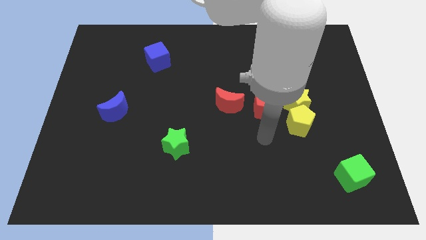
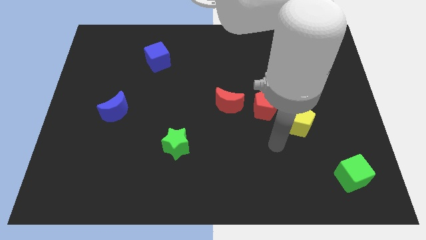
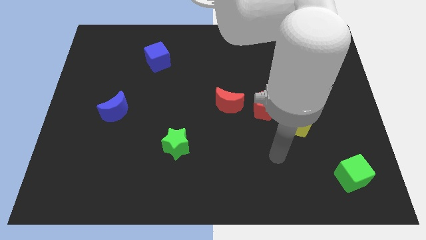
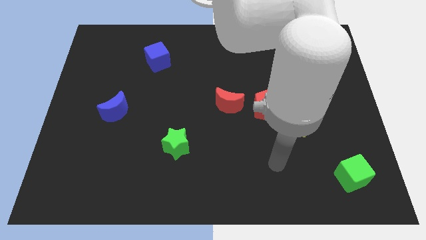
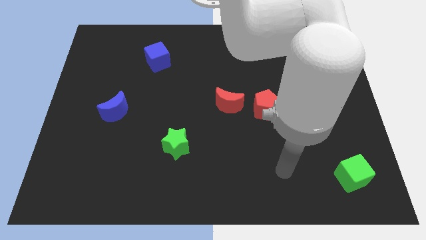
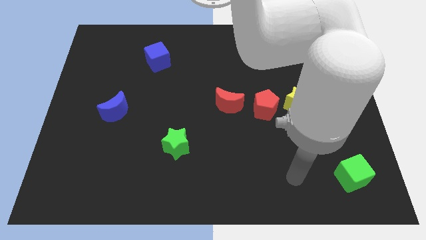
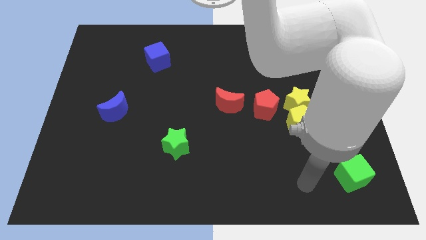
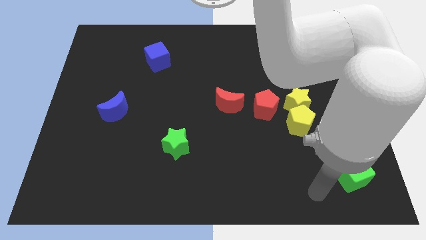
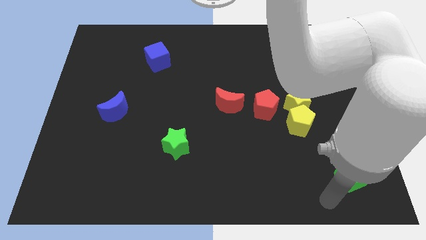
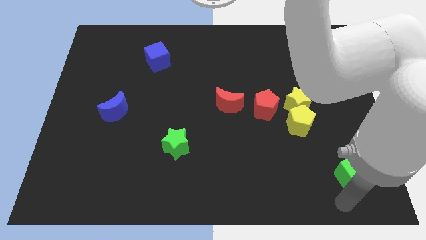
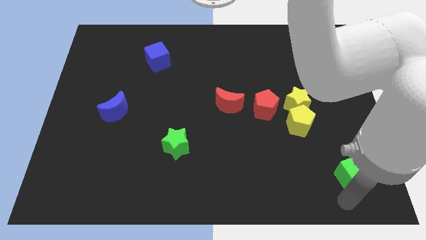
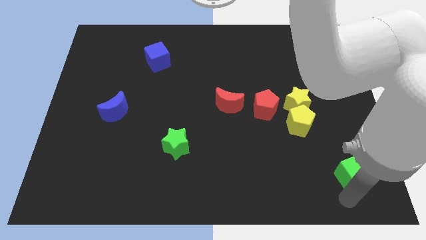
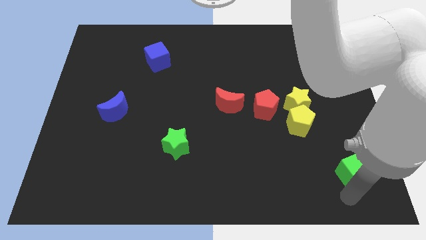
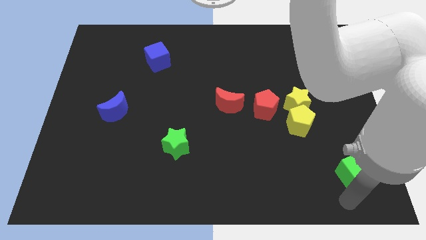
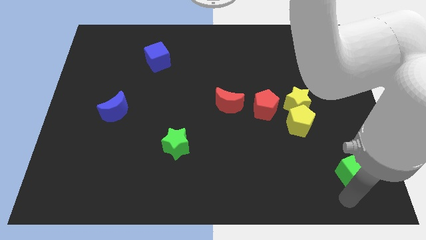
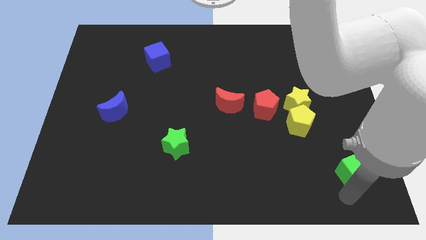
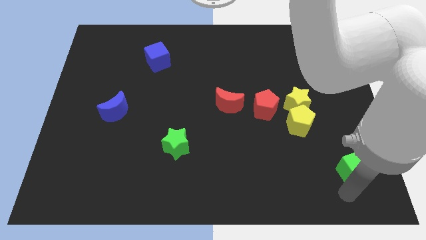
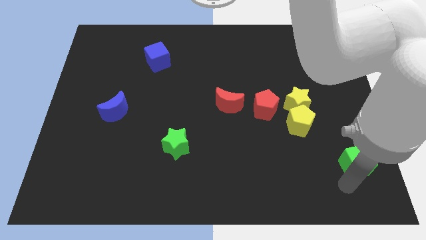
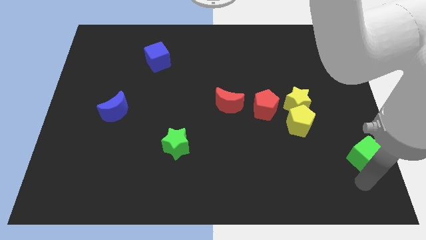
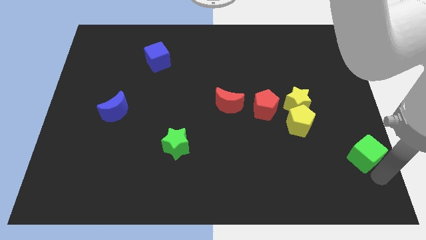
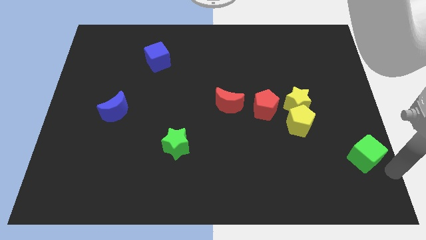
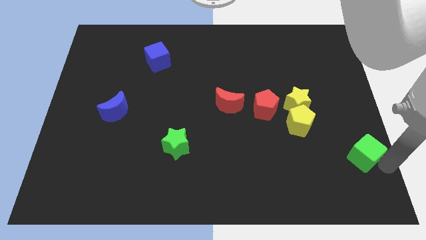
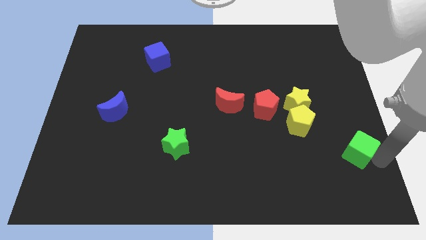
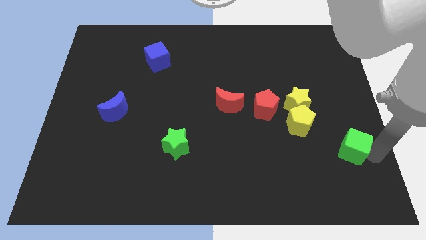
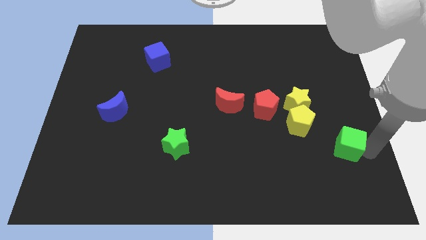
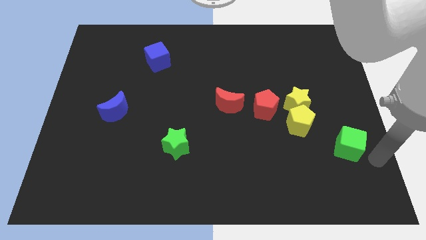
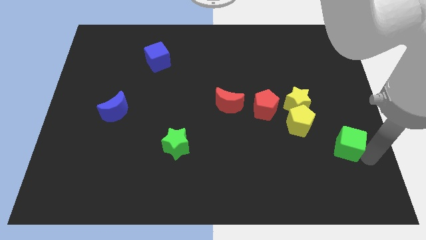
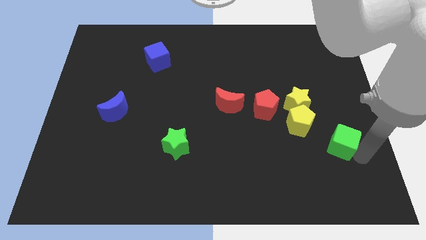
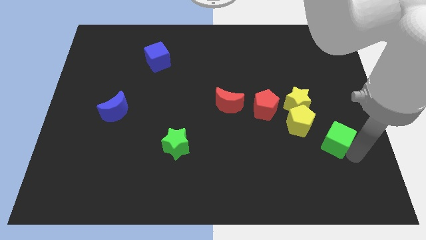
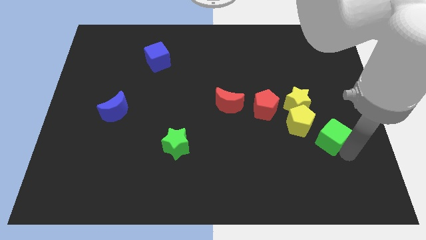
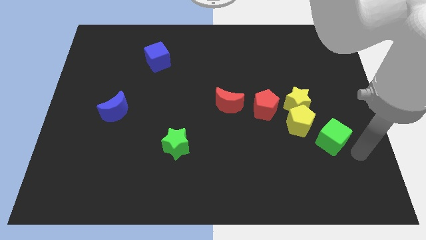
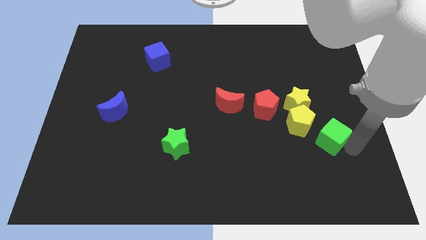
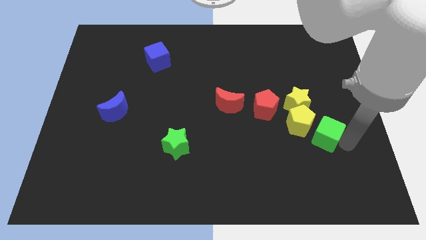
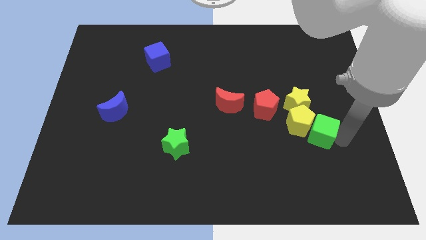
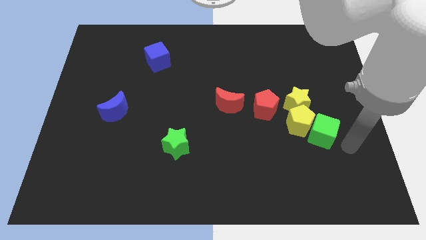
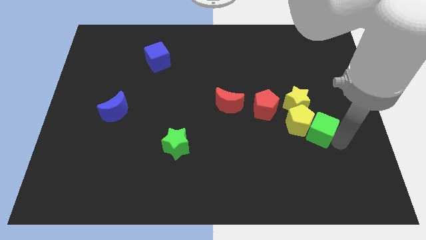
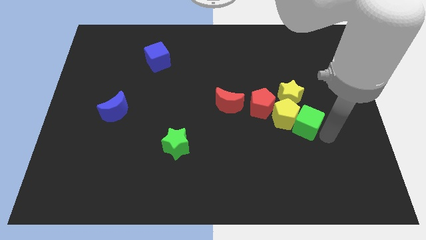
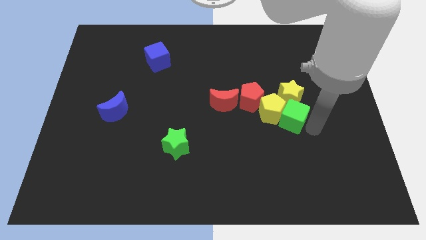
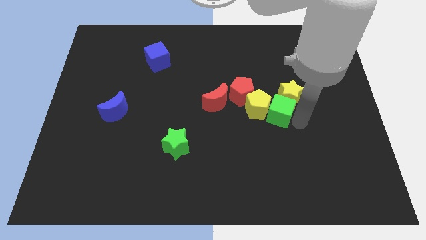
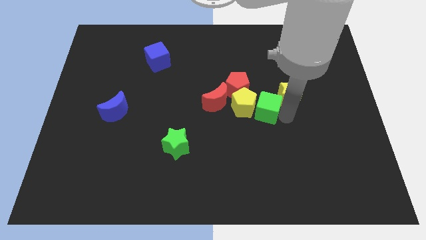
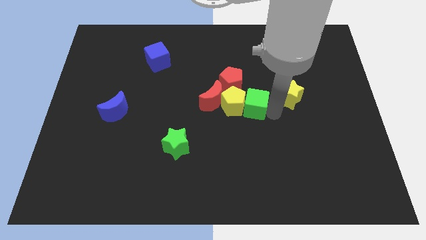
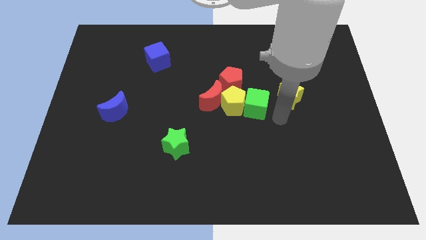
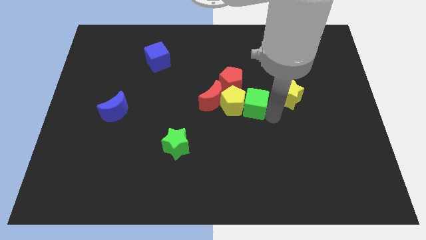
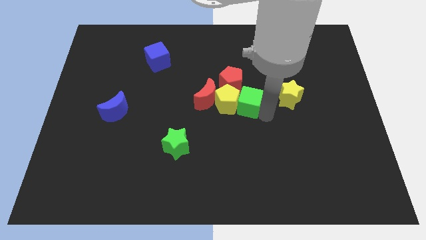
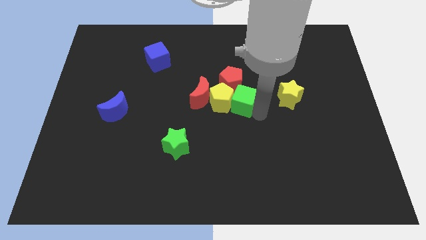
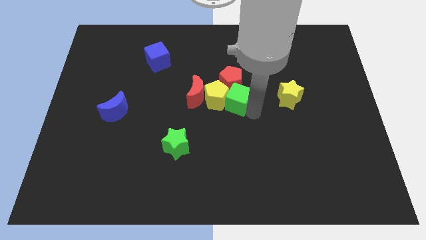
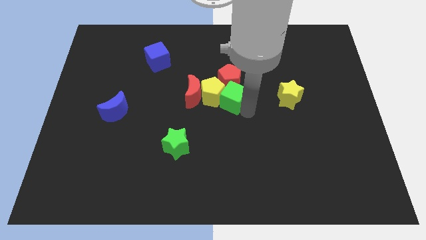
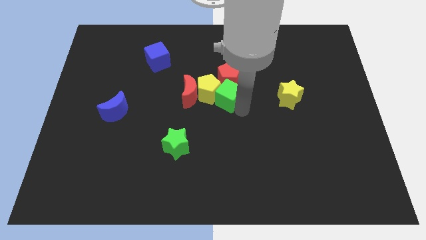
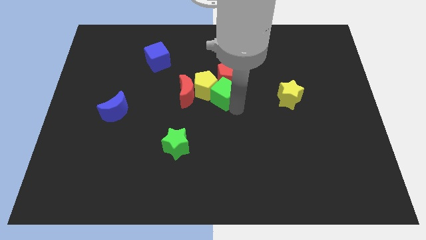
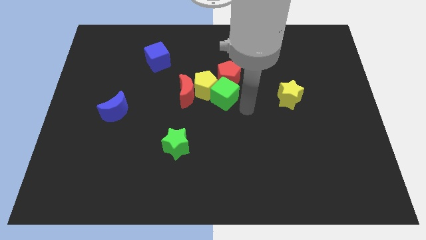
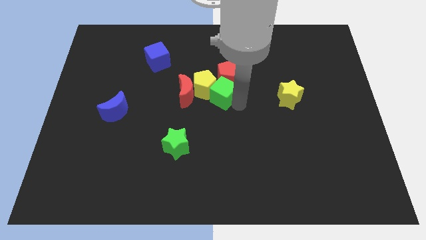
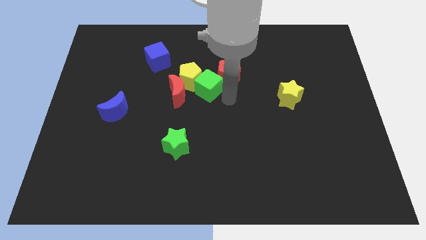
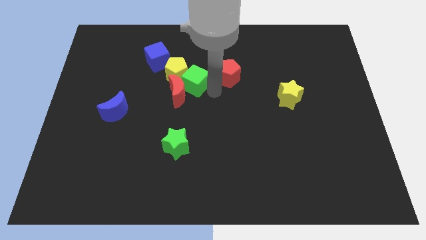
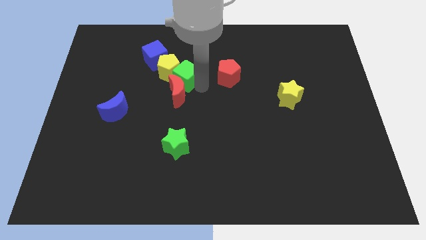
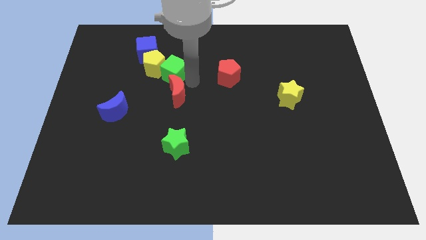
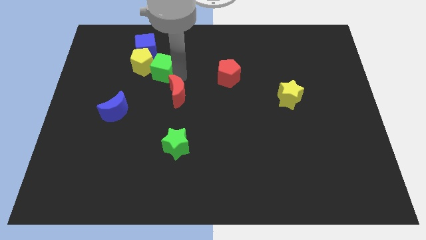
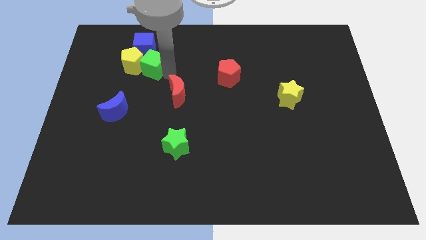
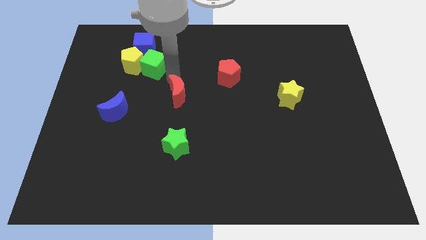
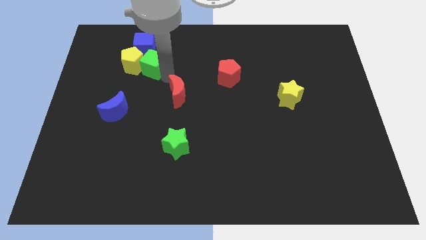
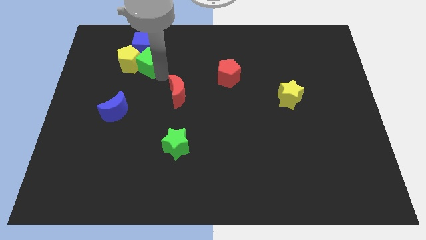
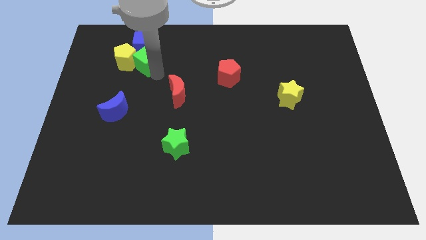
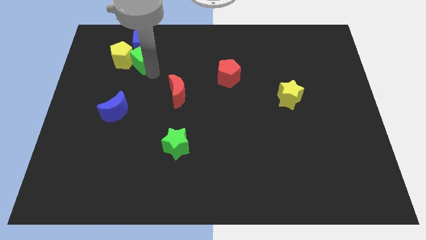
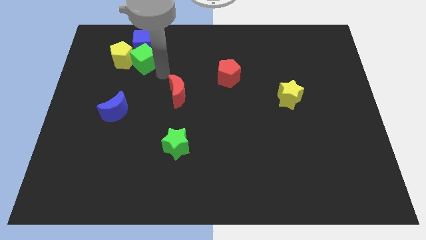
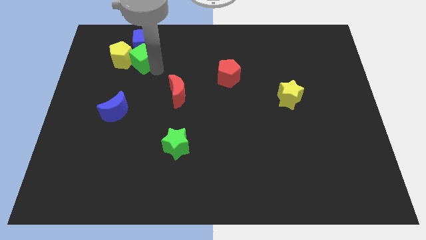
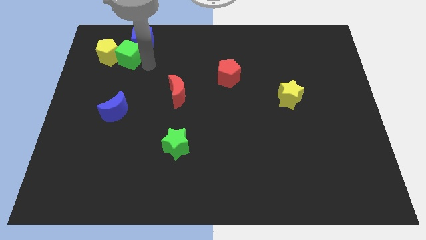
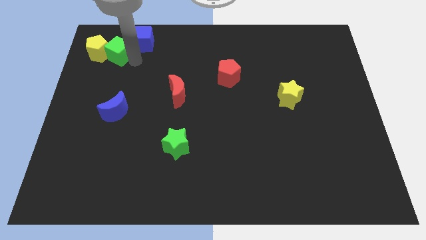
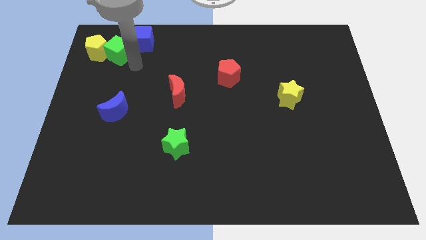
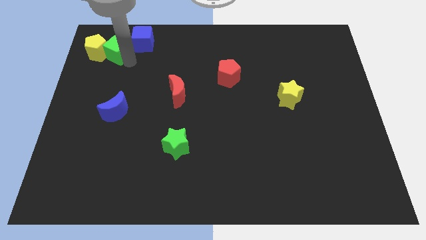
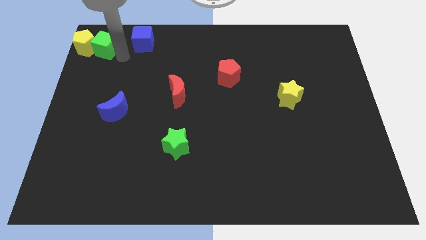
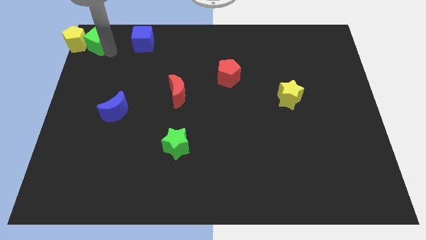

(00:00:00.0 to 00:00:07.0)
move the green cube to the top left corner
